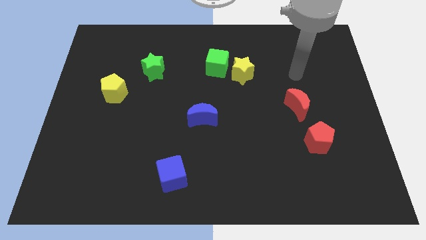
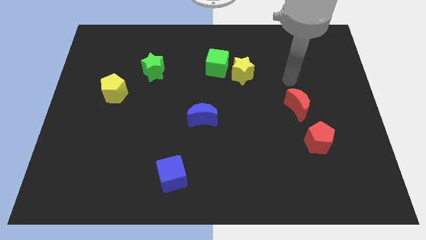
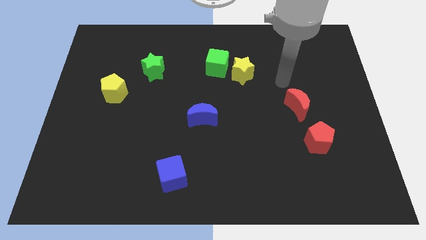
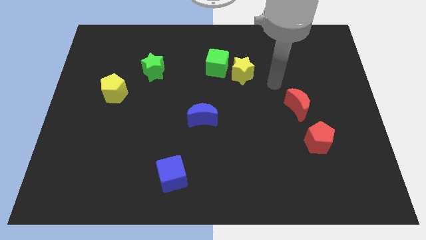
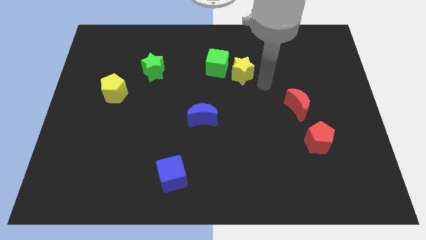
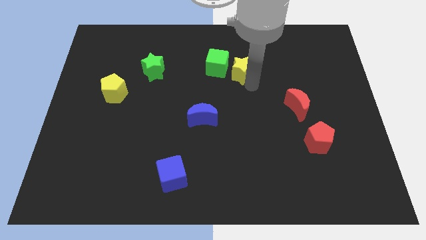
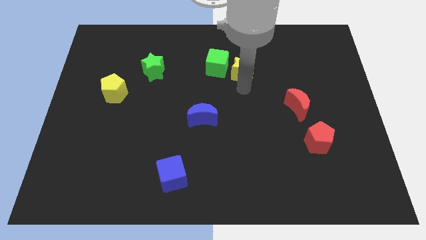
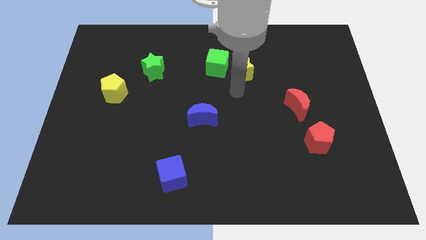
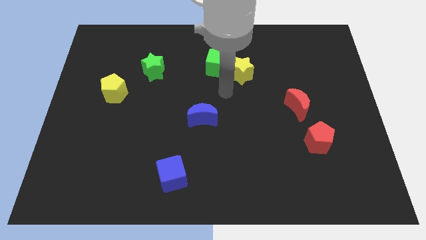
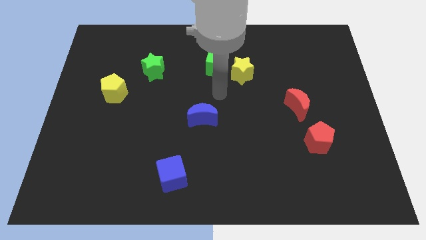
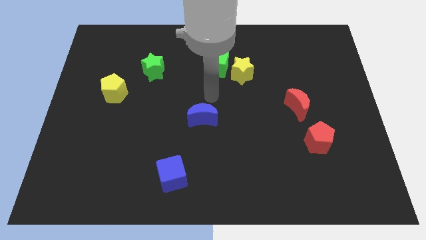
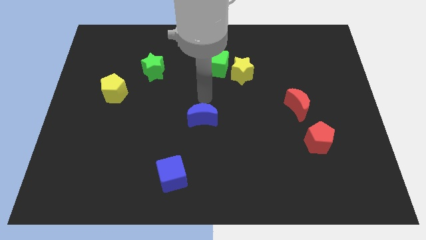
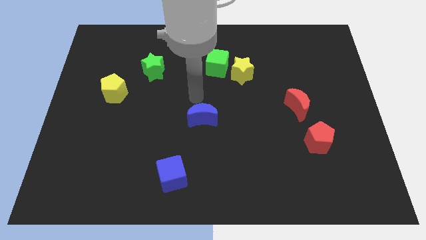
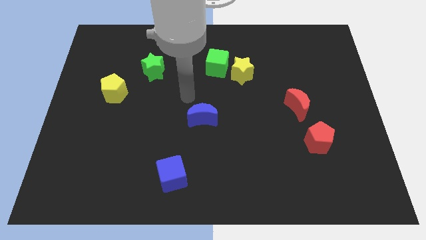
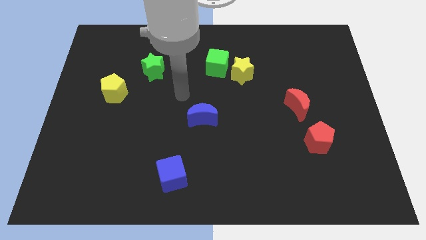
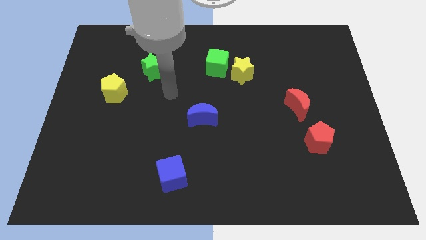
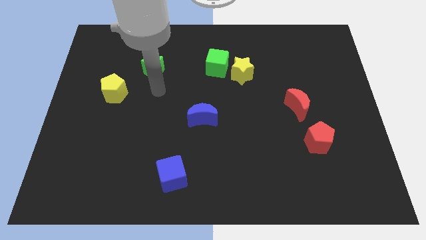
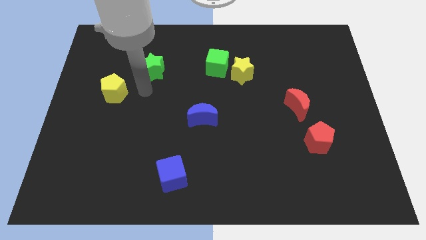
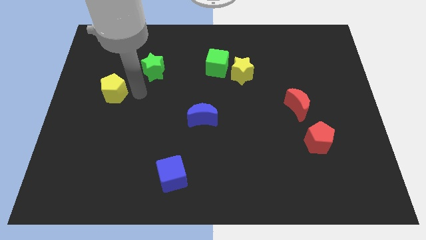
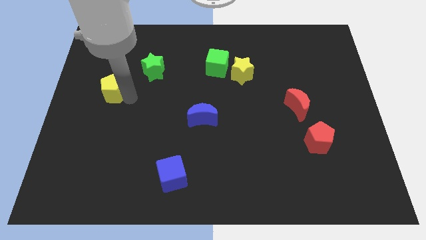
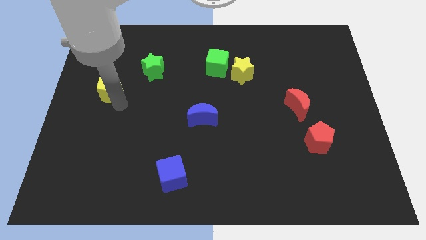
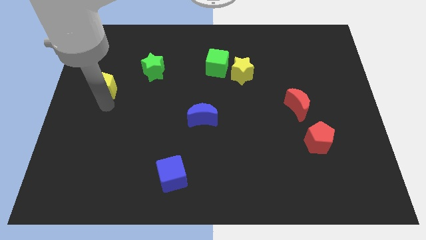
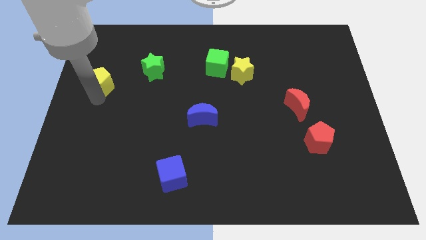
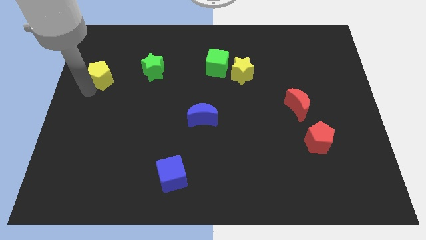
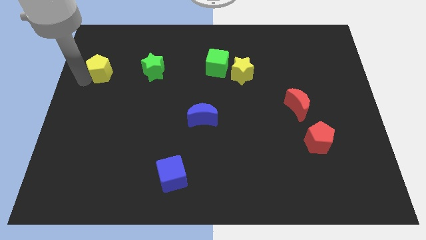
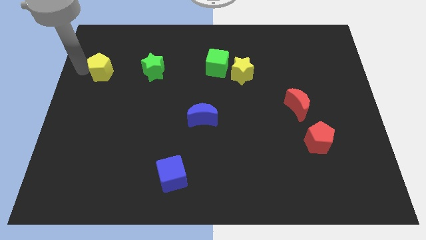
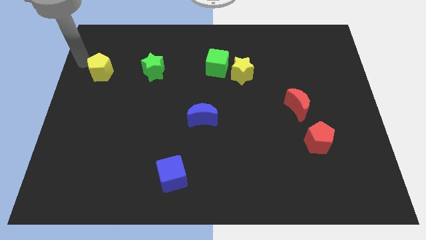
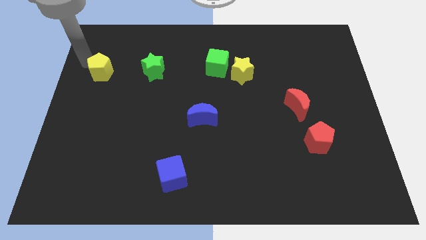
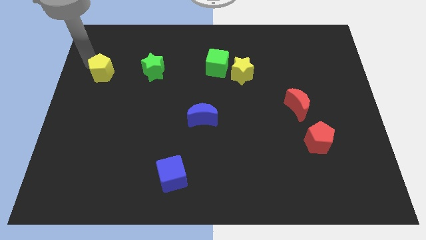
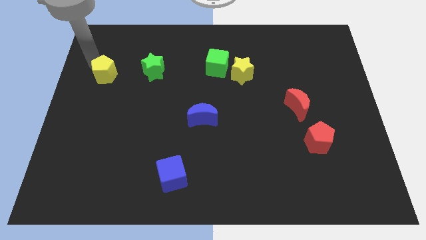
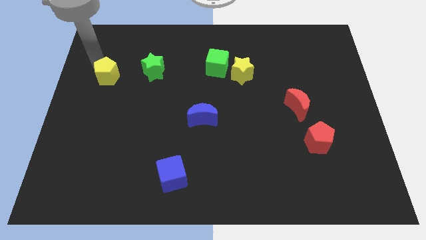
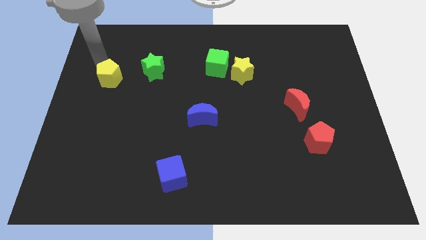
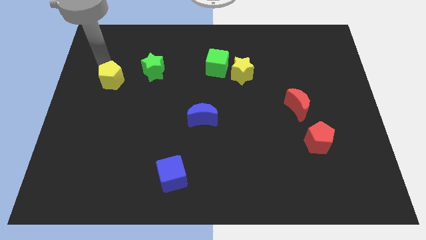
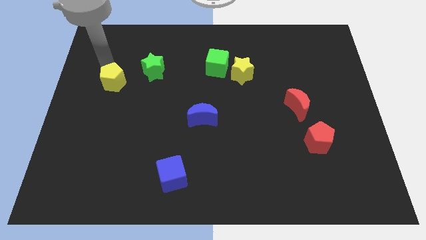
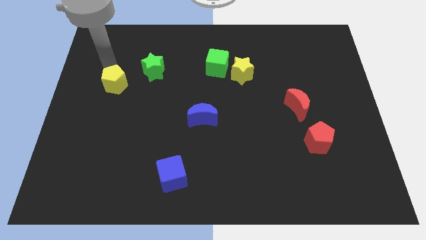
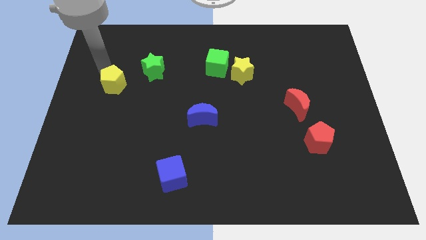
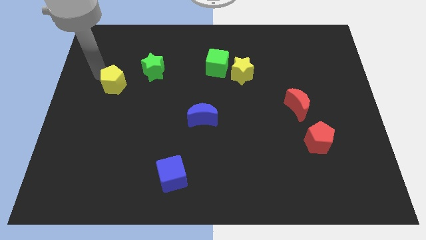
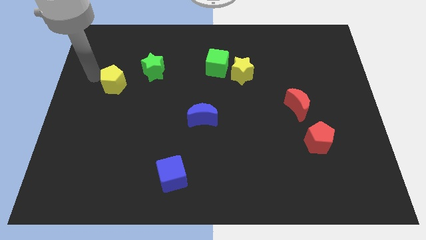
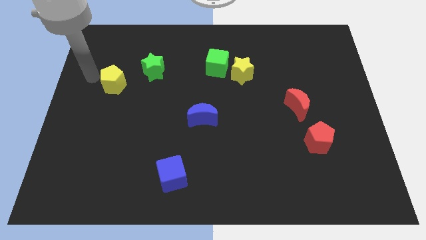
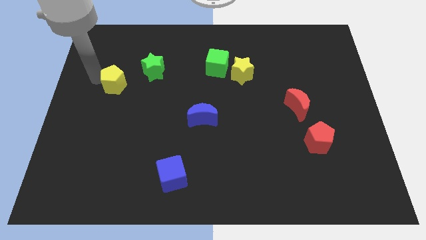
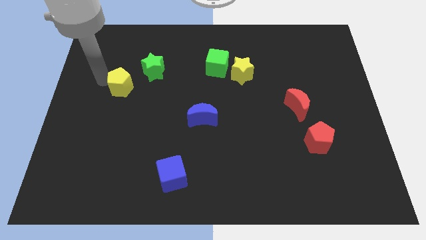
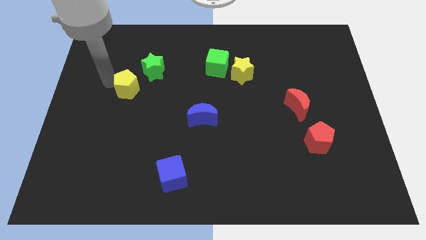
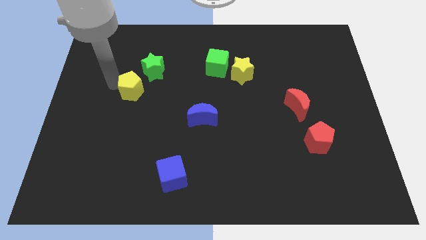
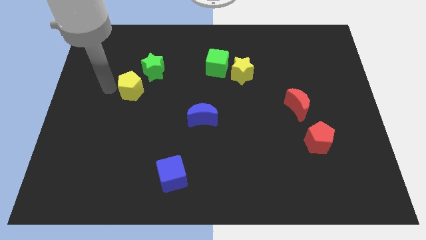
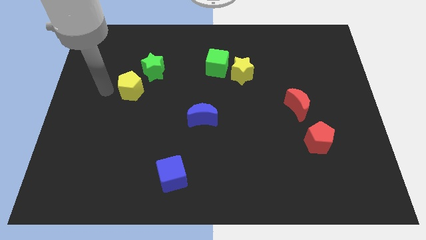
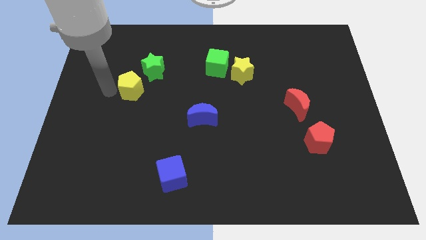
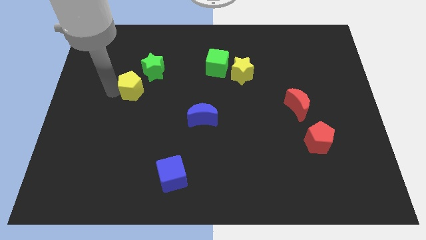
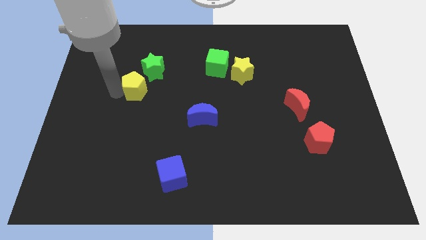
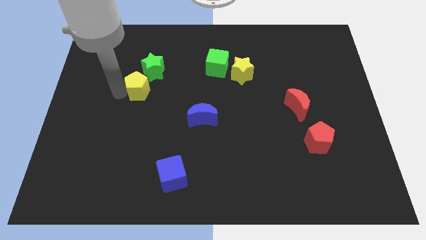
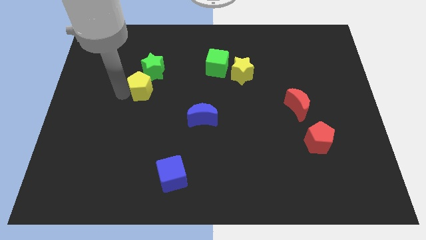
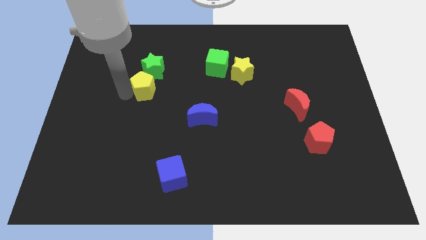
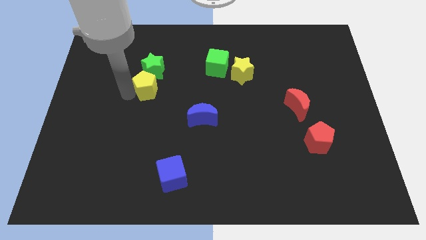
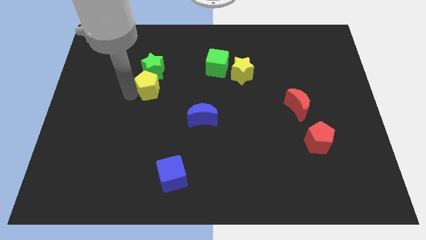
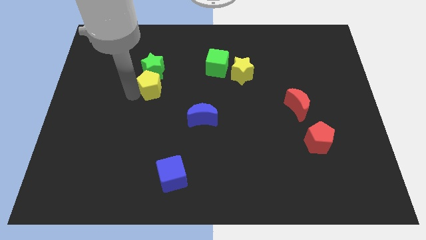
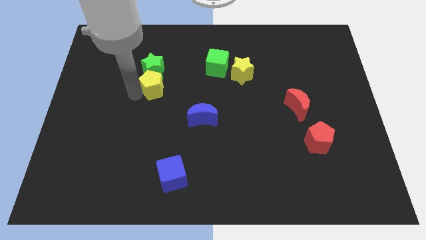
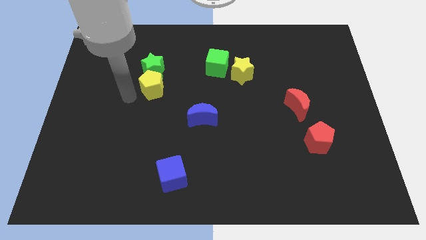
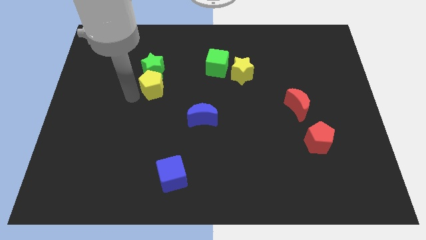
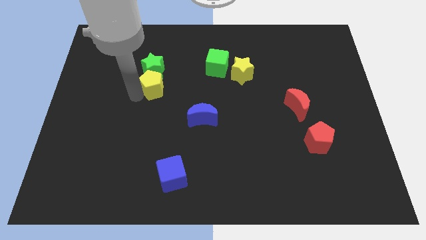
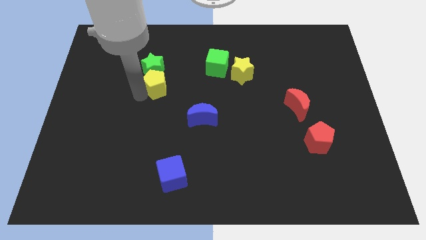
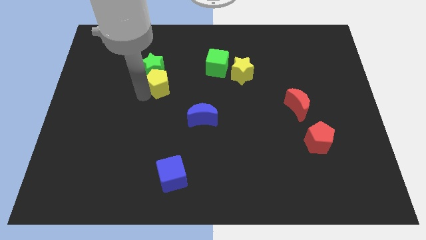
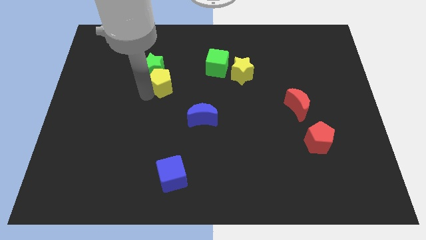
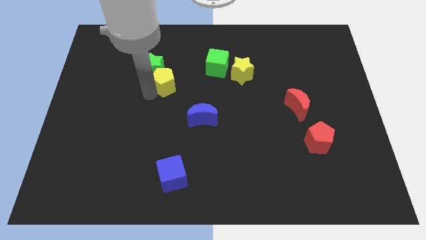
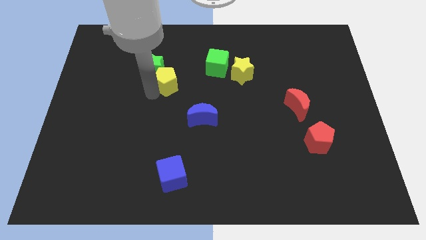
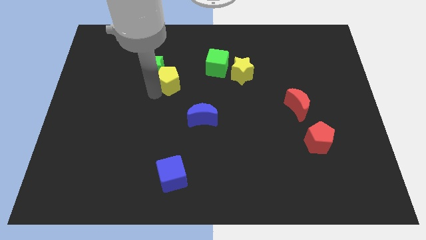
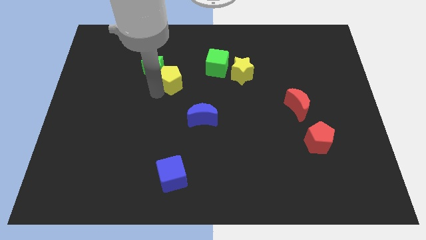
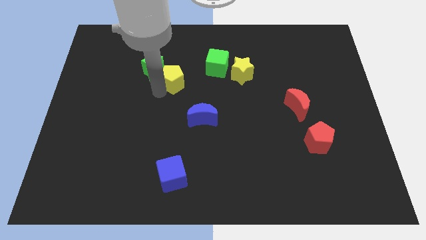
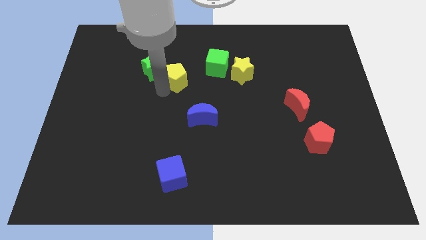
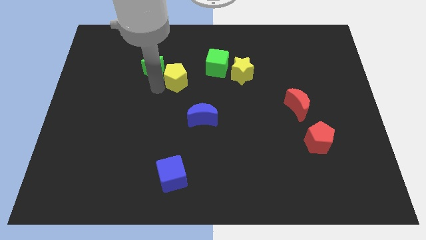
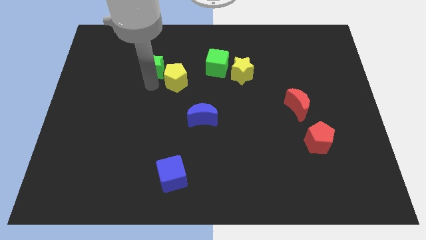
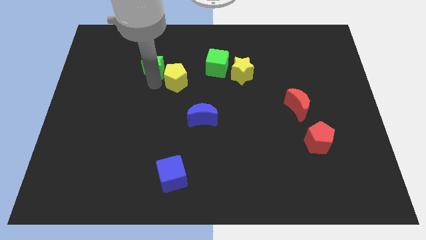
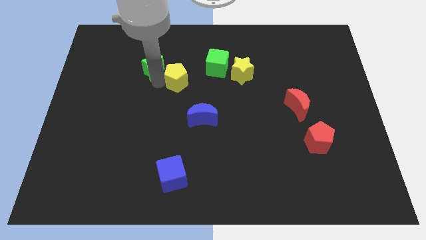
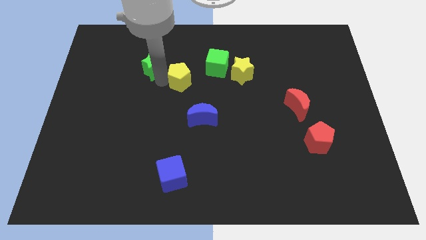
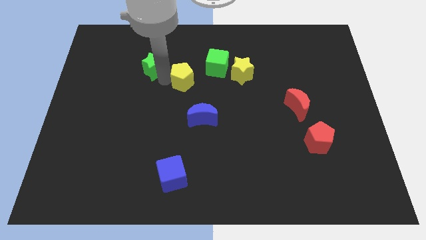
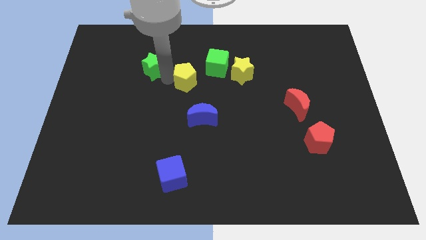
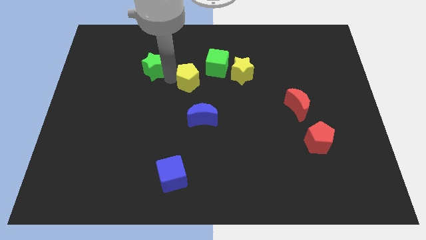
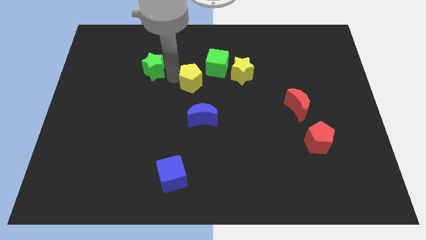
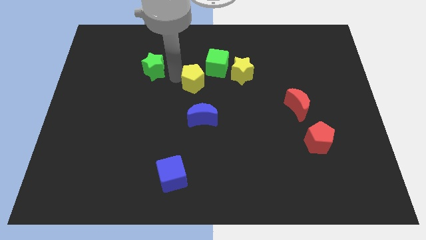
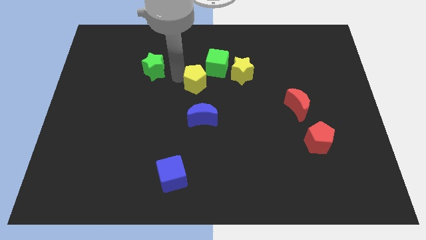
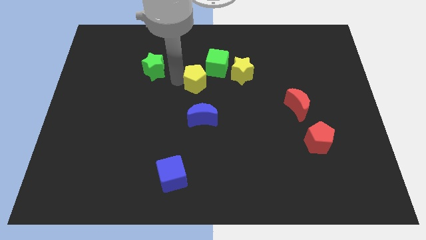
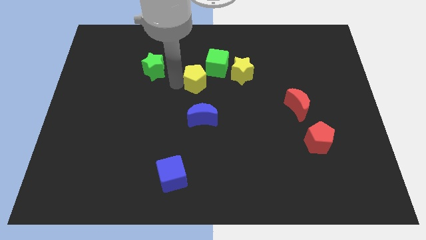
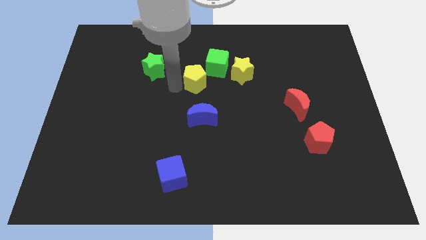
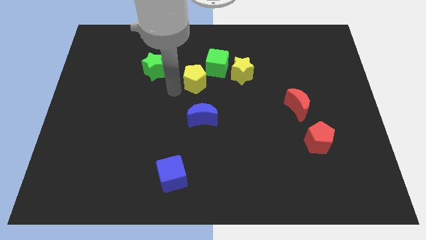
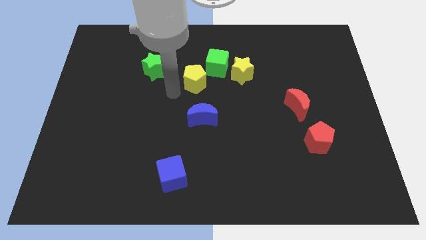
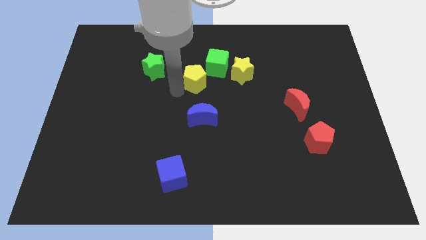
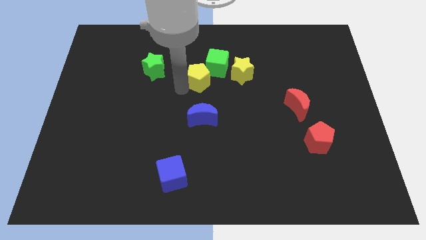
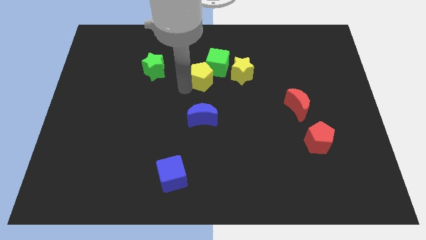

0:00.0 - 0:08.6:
slide the yellow pentagon close to the green cube
